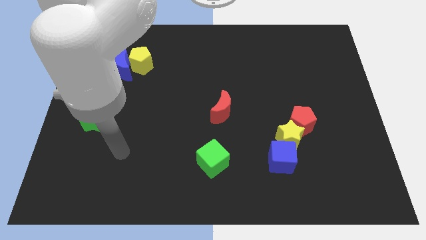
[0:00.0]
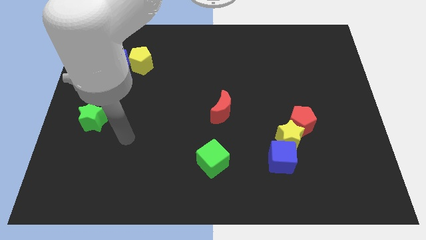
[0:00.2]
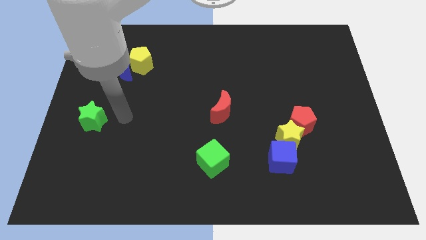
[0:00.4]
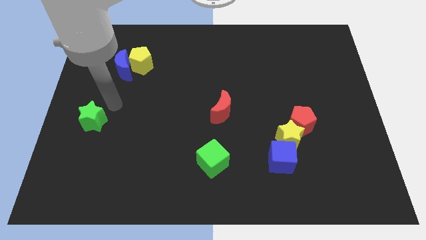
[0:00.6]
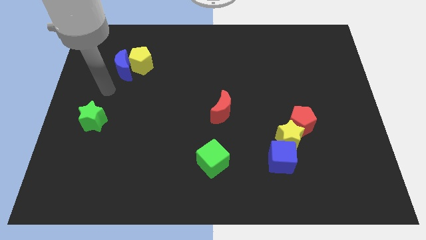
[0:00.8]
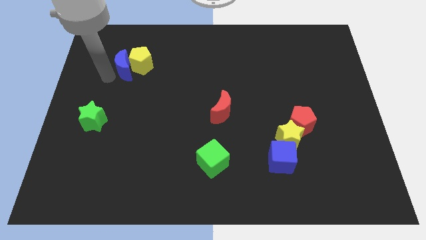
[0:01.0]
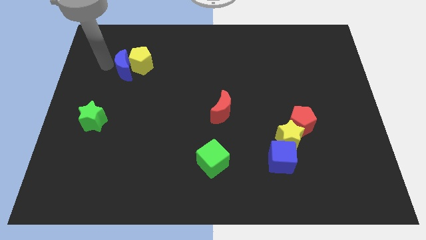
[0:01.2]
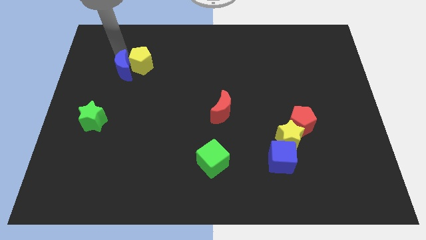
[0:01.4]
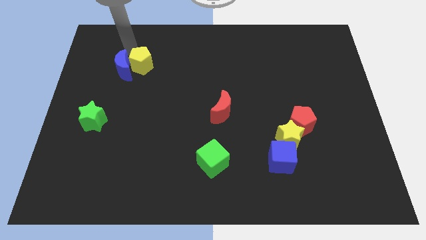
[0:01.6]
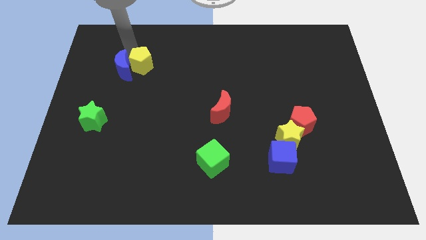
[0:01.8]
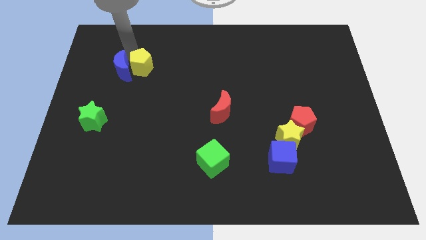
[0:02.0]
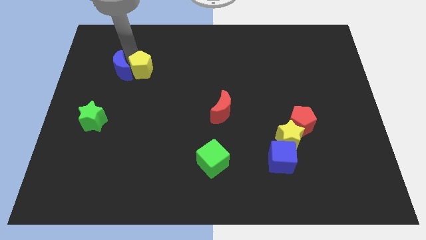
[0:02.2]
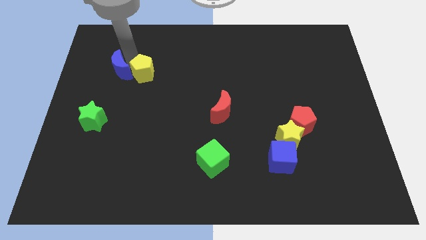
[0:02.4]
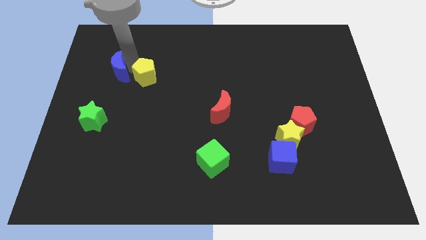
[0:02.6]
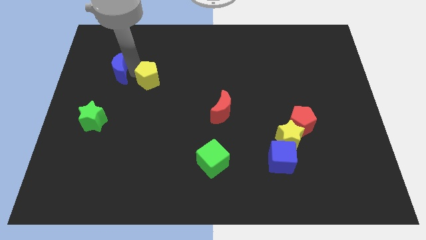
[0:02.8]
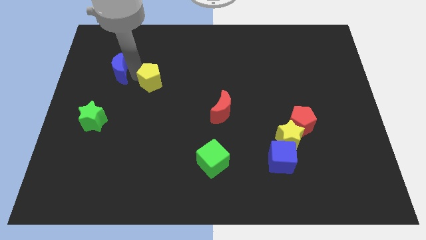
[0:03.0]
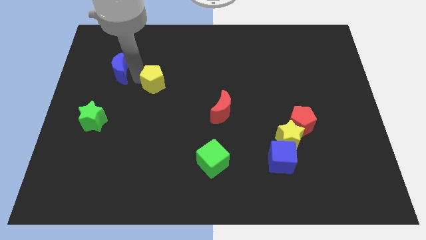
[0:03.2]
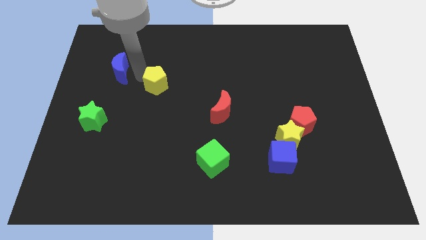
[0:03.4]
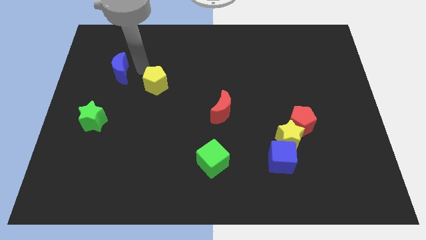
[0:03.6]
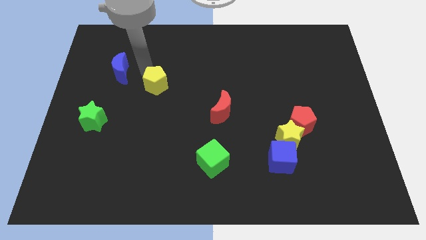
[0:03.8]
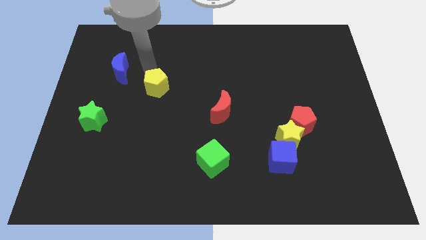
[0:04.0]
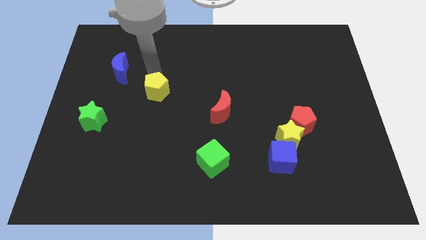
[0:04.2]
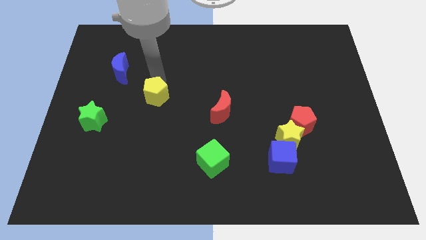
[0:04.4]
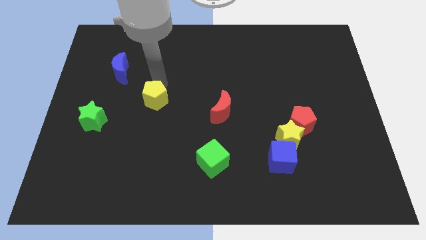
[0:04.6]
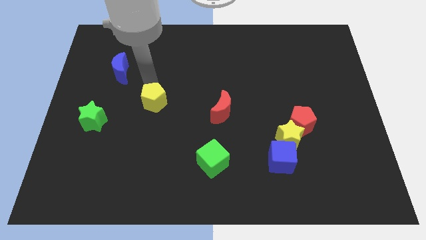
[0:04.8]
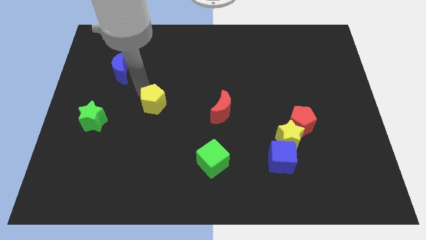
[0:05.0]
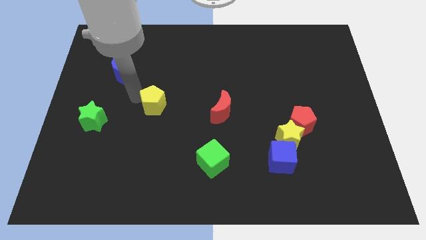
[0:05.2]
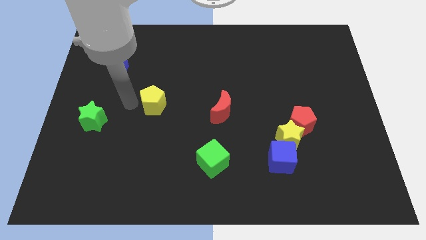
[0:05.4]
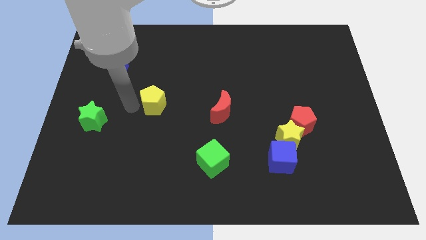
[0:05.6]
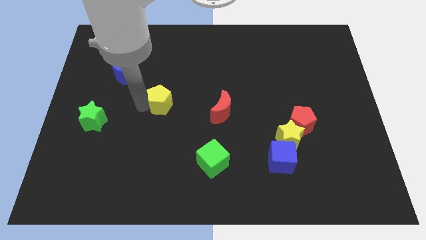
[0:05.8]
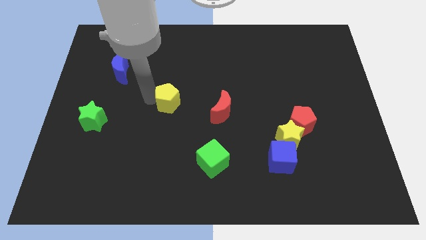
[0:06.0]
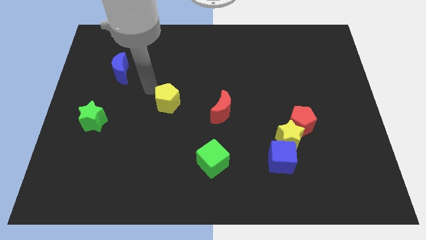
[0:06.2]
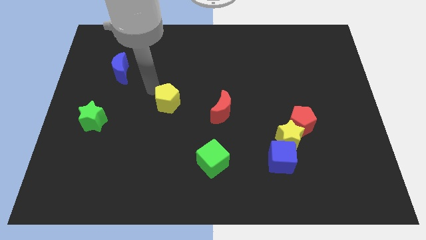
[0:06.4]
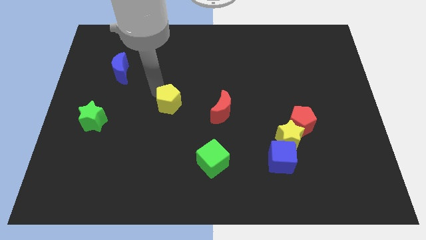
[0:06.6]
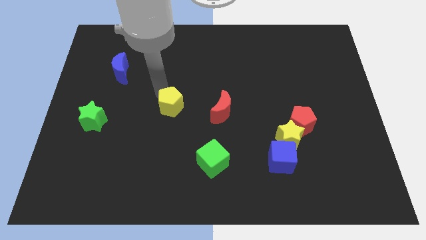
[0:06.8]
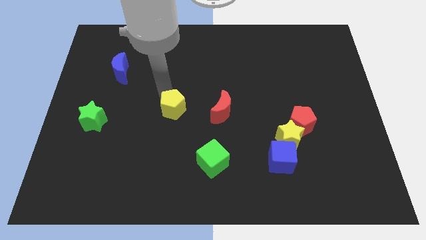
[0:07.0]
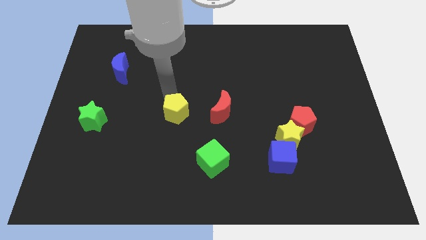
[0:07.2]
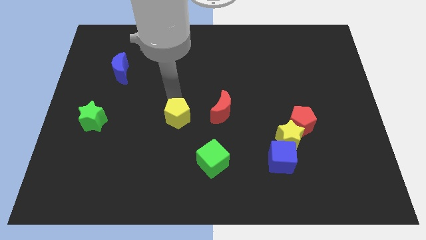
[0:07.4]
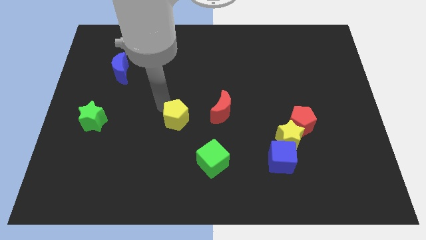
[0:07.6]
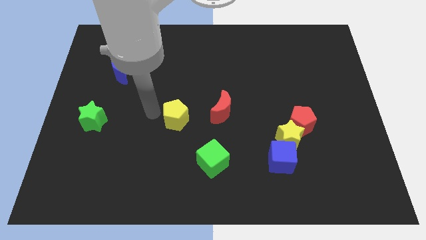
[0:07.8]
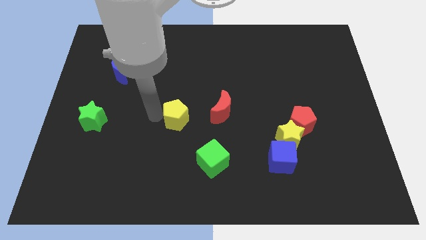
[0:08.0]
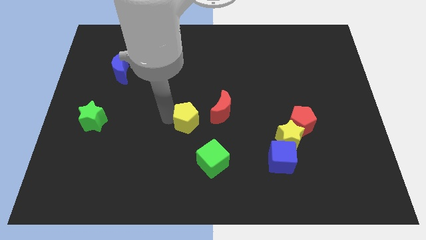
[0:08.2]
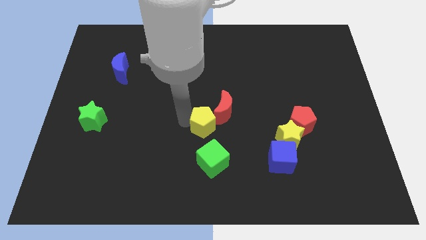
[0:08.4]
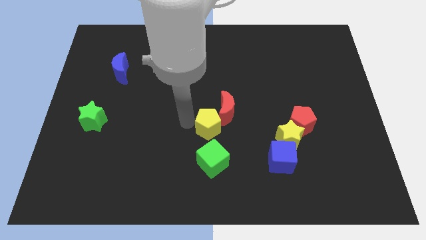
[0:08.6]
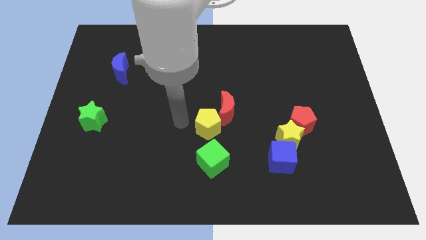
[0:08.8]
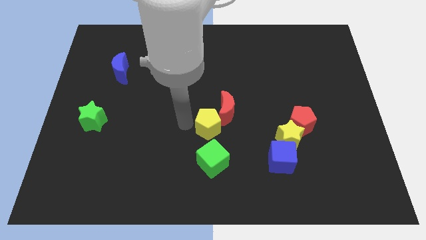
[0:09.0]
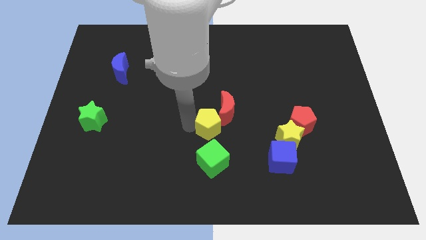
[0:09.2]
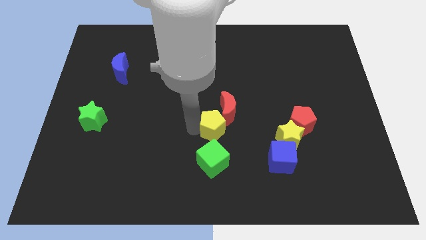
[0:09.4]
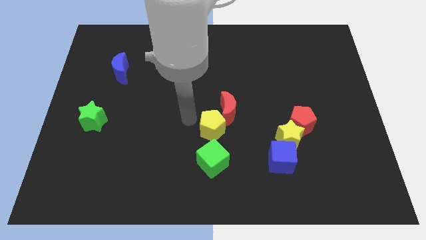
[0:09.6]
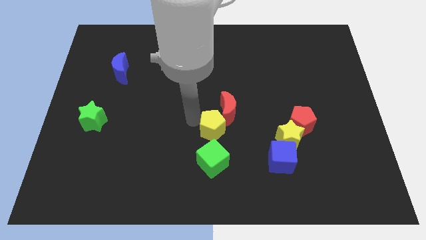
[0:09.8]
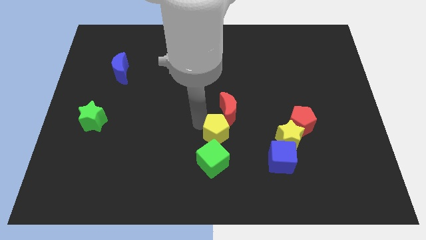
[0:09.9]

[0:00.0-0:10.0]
move the yellow pentagon to the top right of the green cube

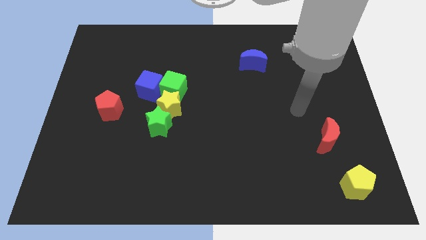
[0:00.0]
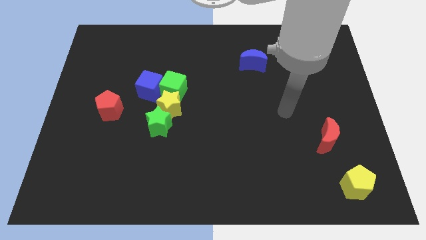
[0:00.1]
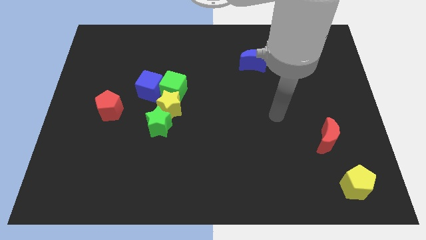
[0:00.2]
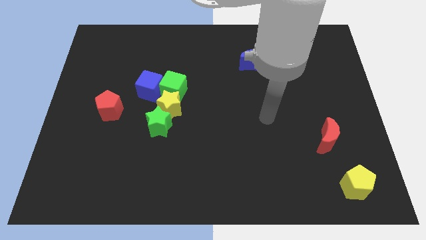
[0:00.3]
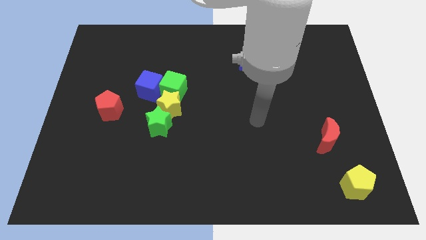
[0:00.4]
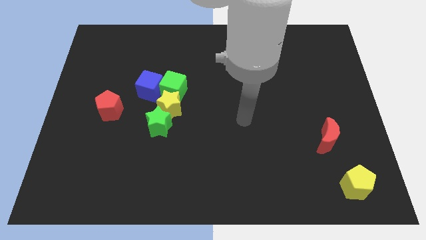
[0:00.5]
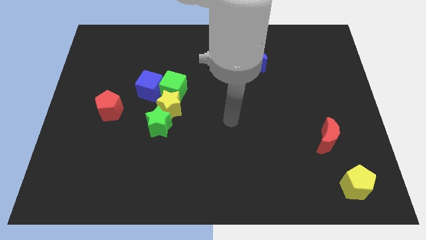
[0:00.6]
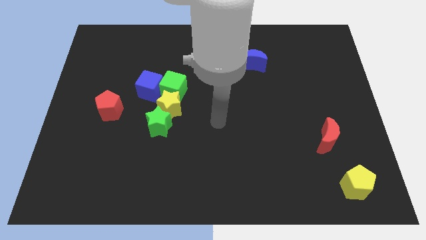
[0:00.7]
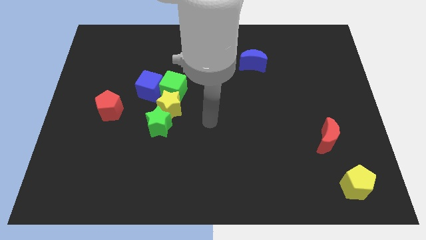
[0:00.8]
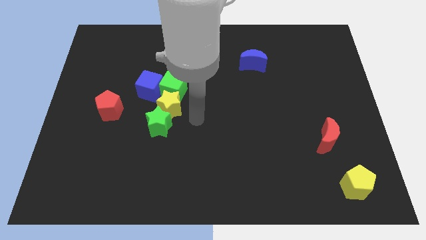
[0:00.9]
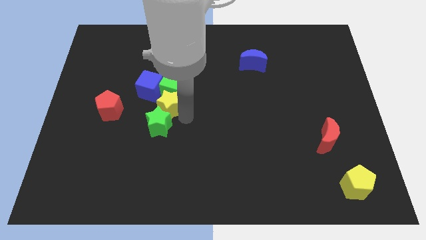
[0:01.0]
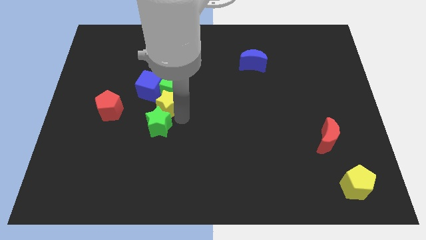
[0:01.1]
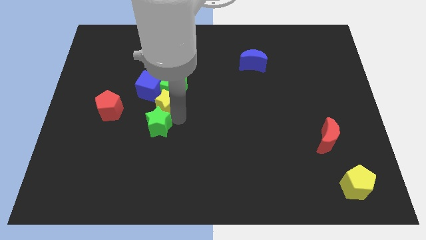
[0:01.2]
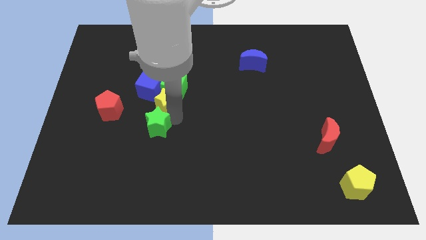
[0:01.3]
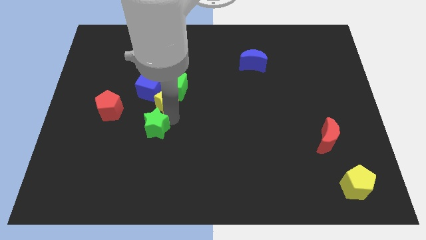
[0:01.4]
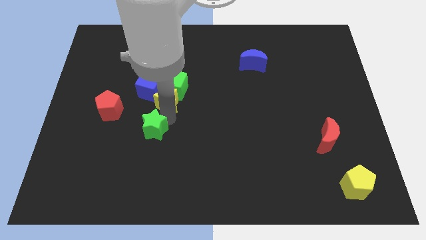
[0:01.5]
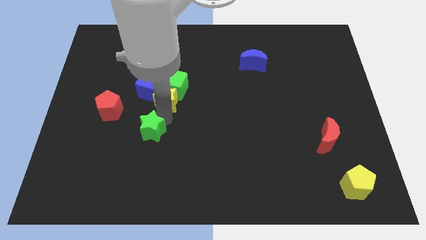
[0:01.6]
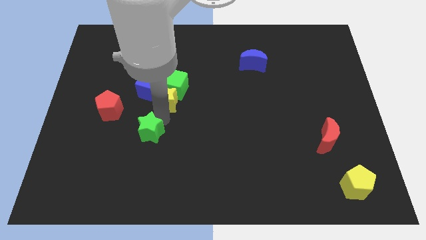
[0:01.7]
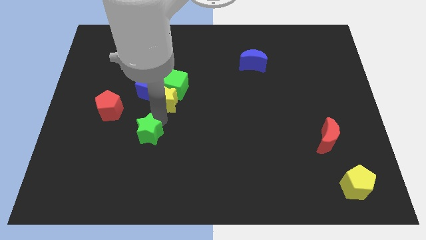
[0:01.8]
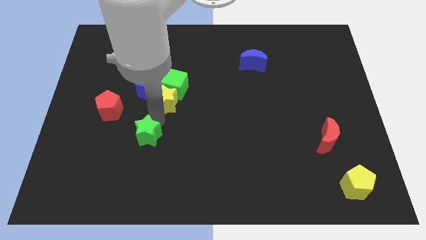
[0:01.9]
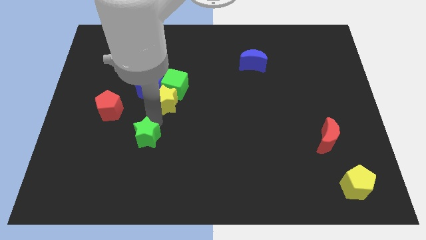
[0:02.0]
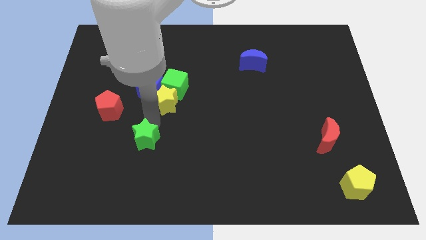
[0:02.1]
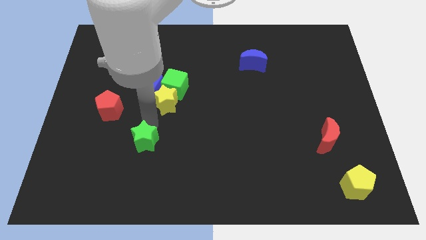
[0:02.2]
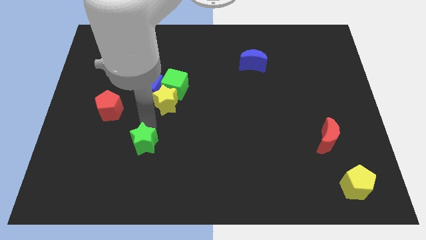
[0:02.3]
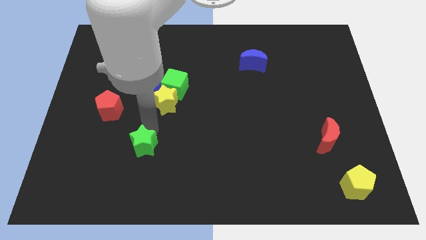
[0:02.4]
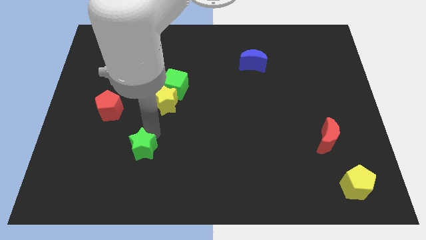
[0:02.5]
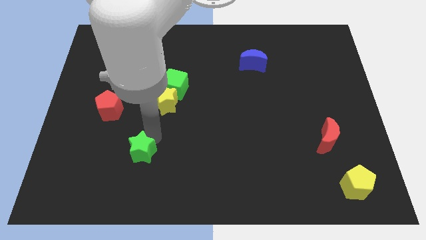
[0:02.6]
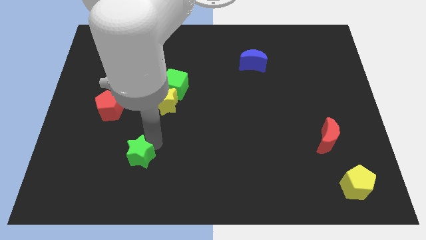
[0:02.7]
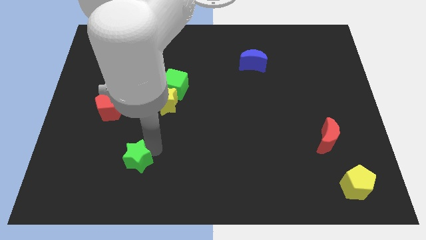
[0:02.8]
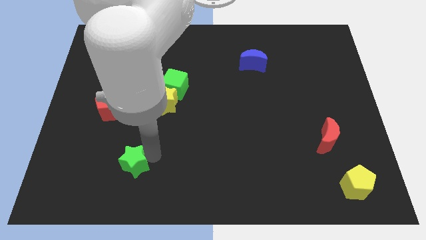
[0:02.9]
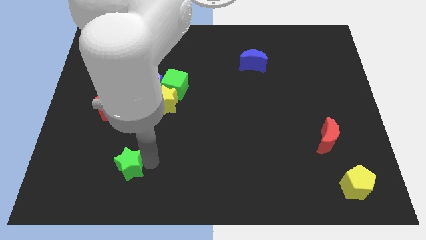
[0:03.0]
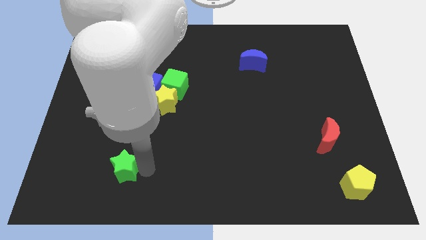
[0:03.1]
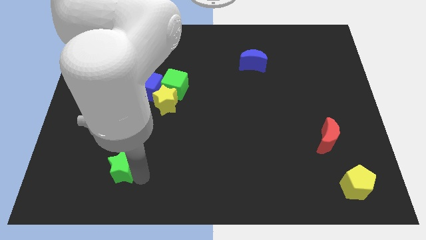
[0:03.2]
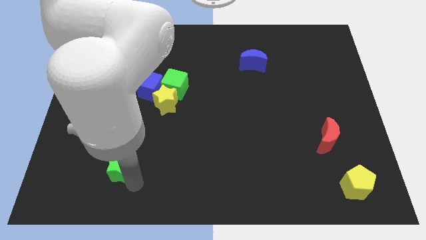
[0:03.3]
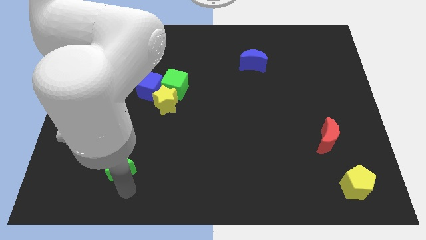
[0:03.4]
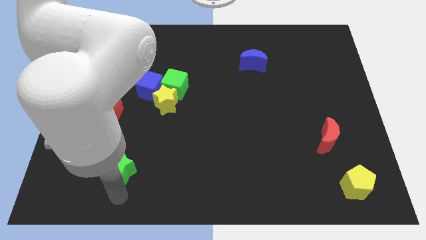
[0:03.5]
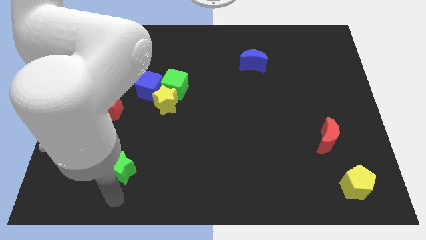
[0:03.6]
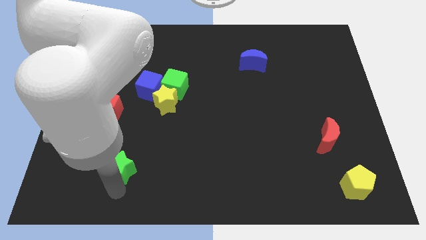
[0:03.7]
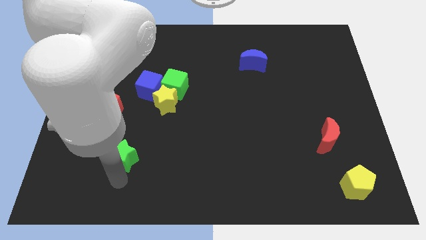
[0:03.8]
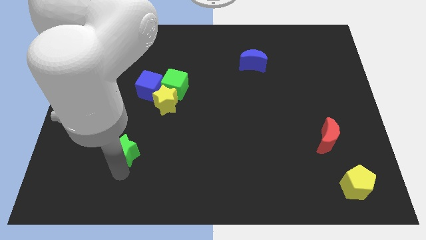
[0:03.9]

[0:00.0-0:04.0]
push the green star to the bottom side of the red pentagon
